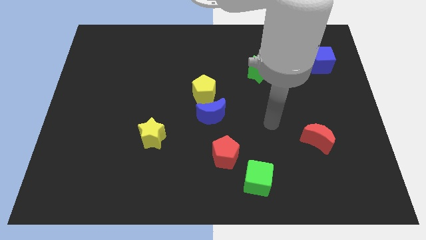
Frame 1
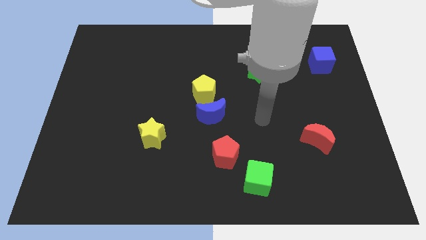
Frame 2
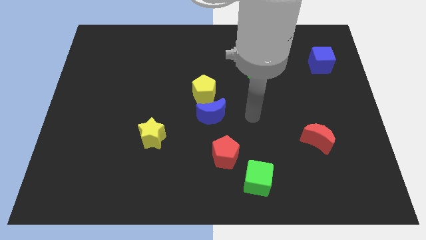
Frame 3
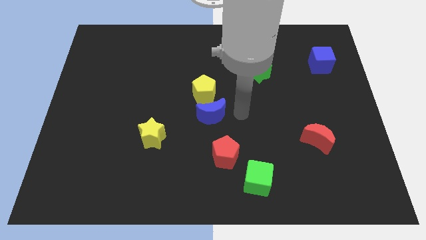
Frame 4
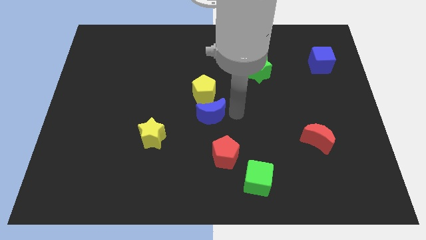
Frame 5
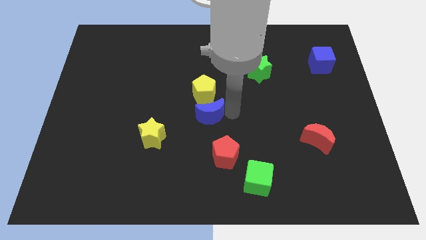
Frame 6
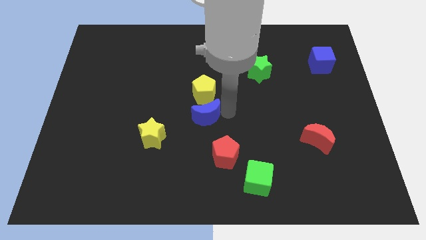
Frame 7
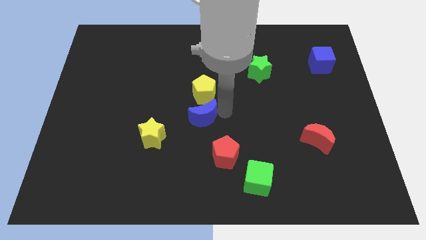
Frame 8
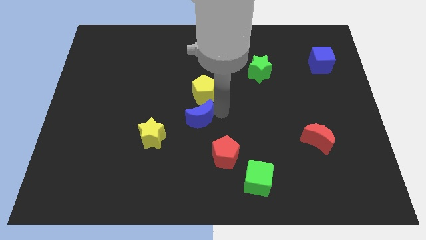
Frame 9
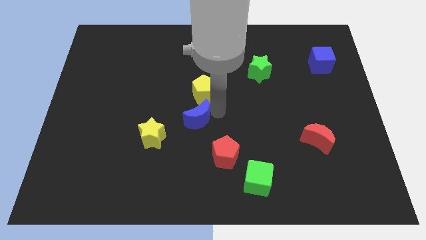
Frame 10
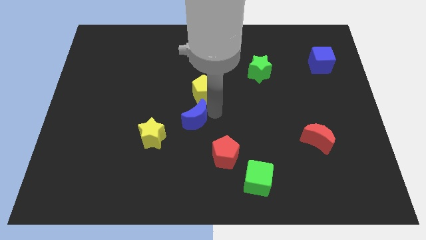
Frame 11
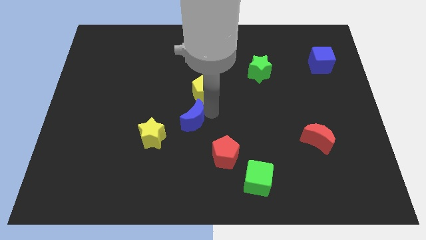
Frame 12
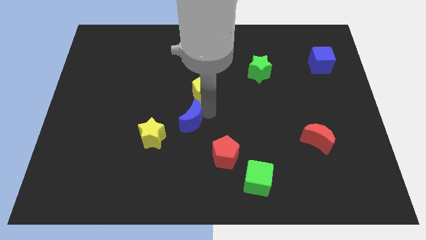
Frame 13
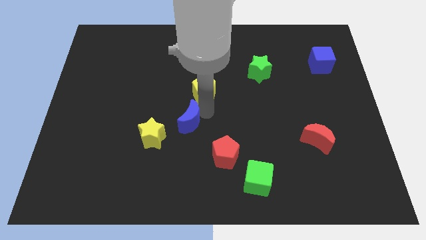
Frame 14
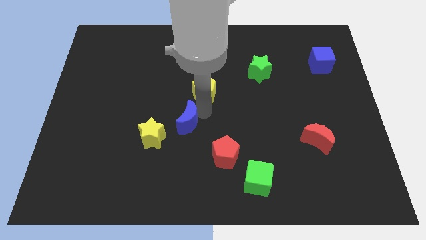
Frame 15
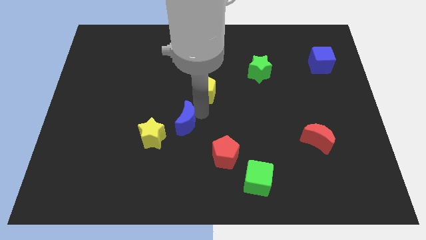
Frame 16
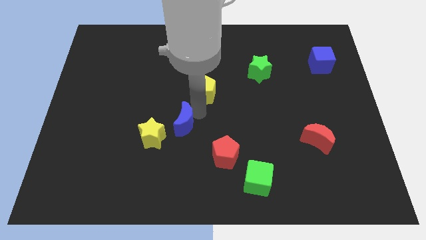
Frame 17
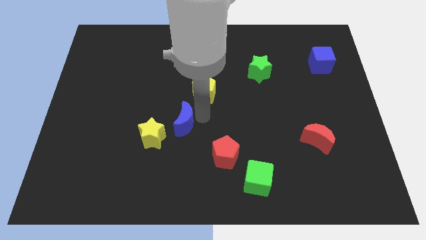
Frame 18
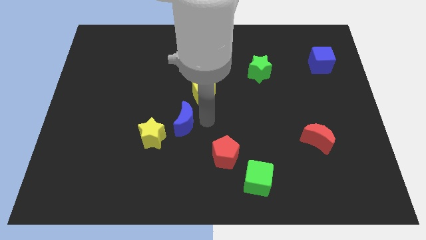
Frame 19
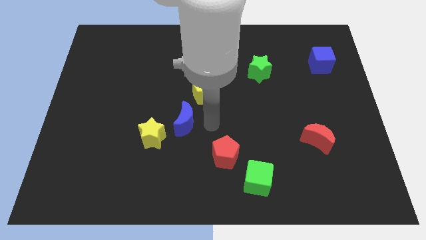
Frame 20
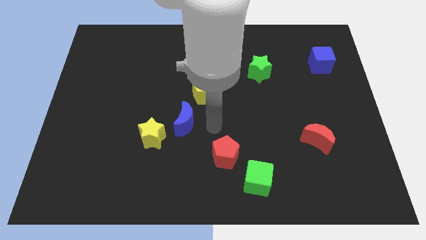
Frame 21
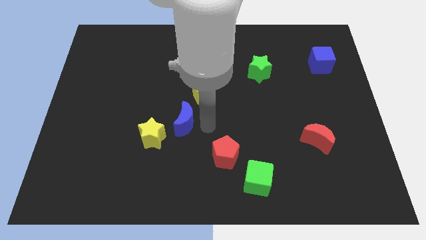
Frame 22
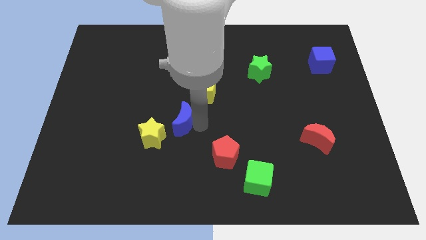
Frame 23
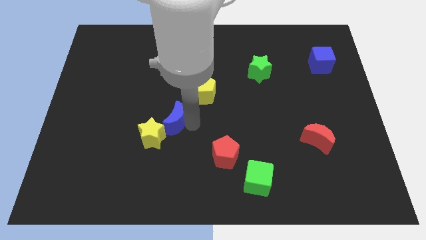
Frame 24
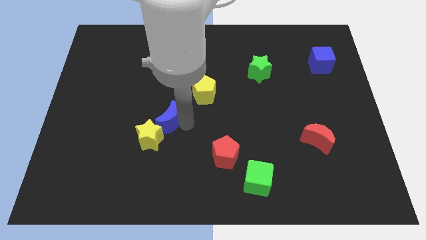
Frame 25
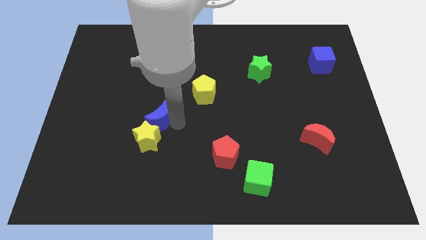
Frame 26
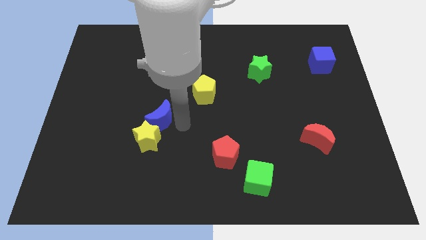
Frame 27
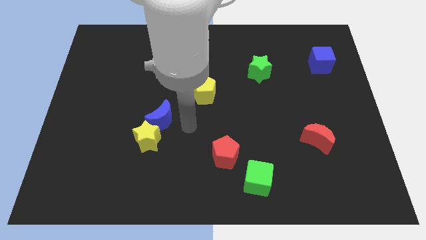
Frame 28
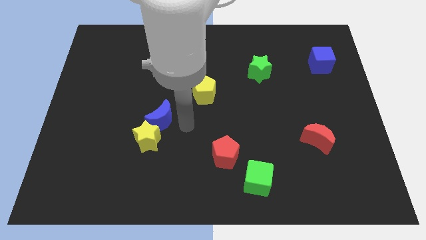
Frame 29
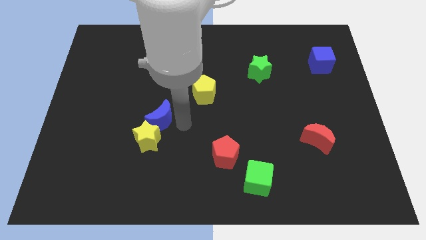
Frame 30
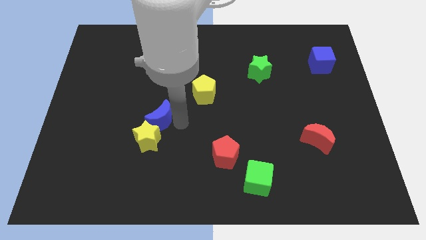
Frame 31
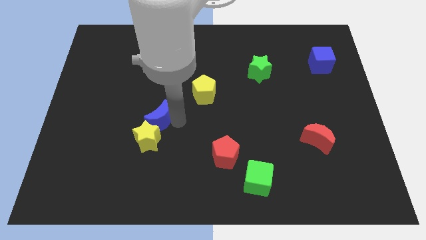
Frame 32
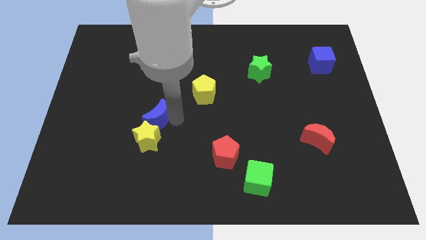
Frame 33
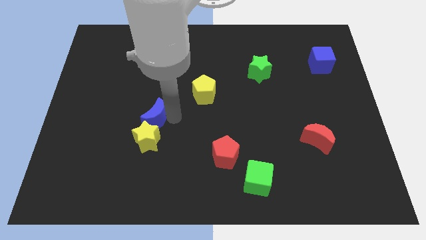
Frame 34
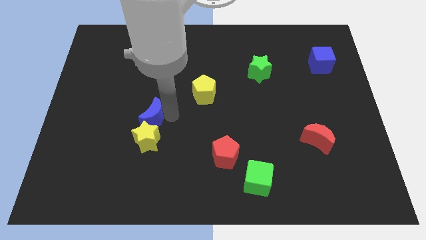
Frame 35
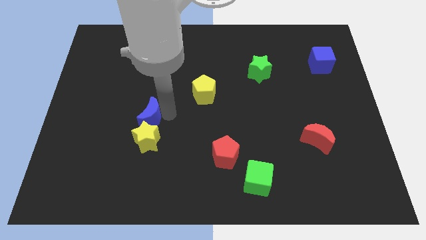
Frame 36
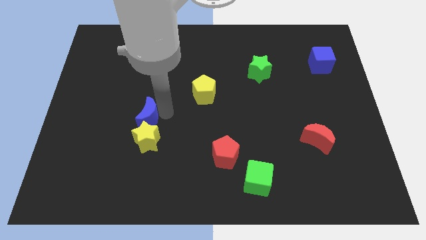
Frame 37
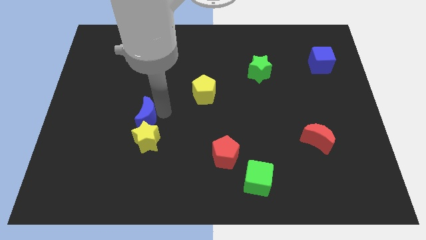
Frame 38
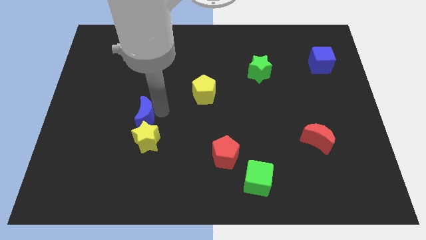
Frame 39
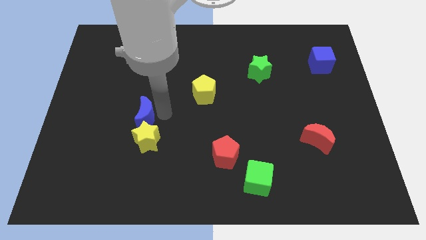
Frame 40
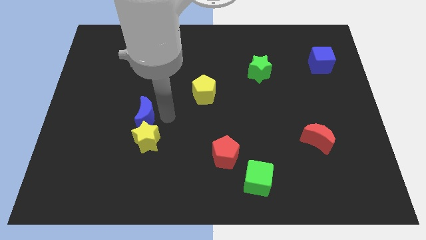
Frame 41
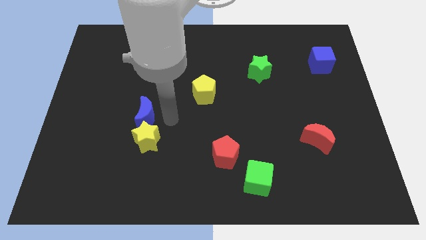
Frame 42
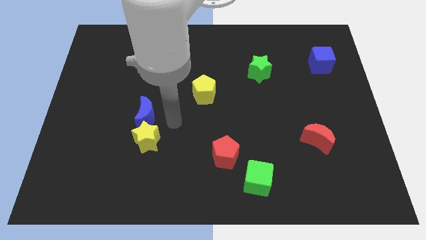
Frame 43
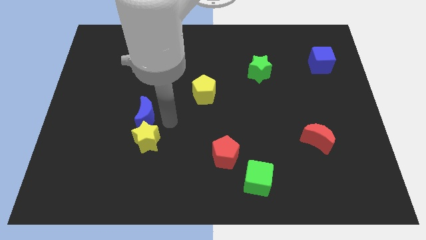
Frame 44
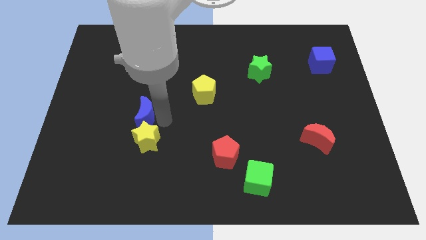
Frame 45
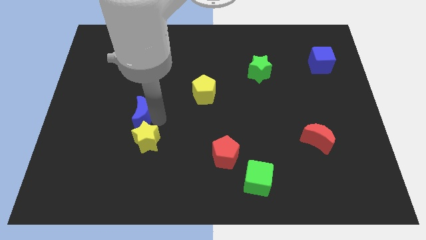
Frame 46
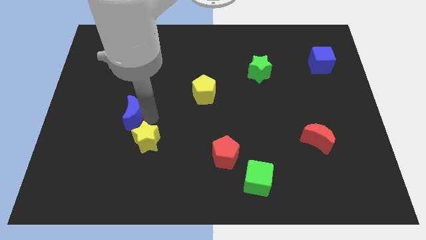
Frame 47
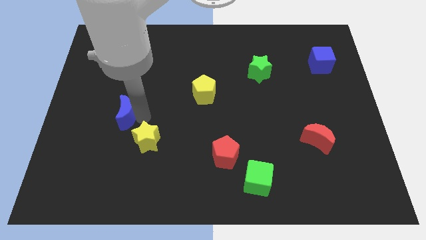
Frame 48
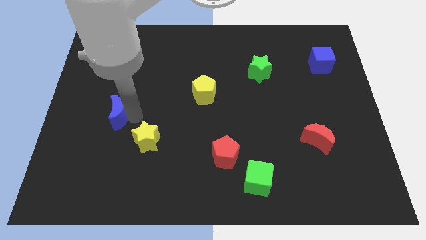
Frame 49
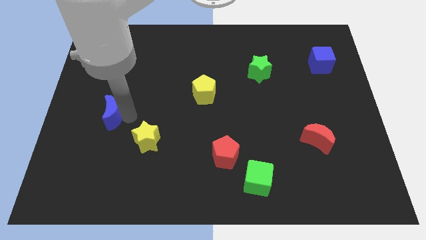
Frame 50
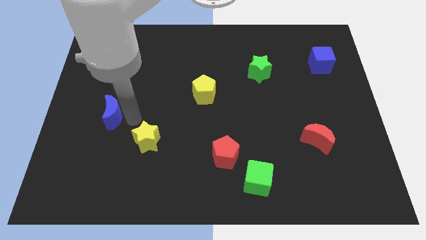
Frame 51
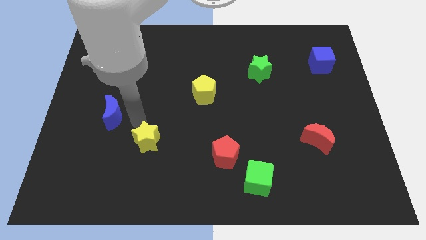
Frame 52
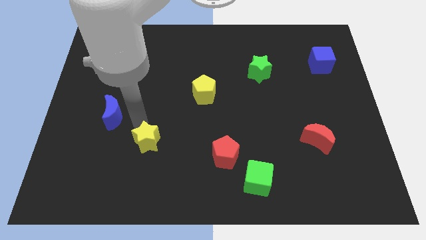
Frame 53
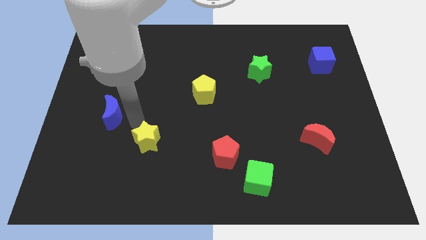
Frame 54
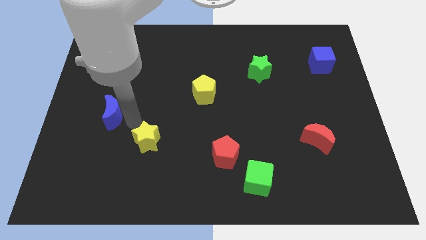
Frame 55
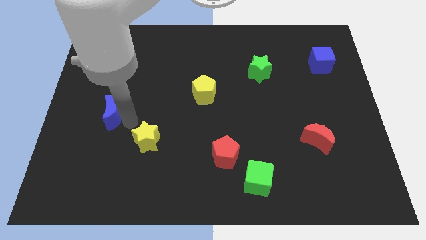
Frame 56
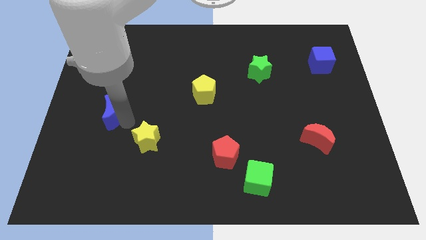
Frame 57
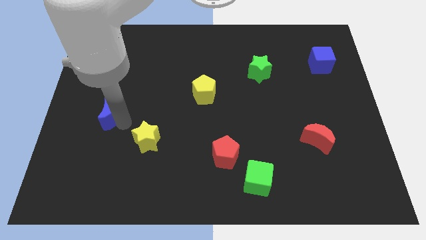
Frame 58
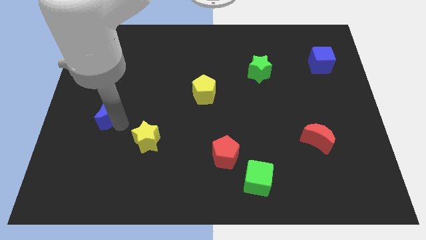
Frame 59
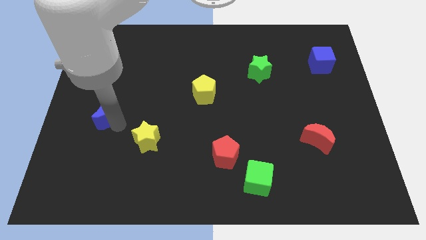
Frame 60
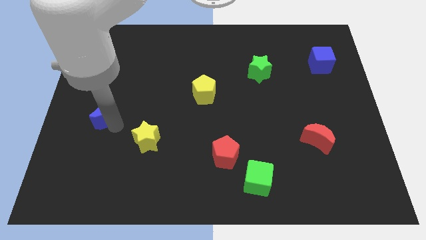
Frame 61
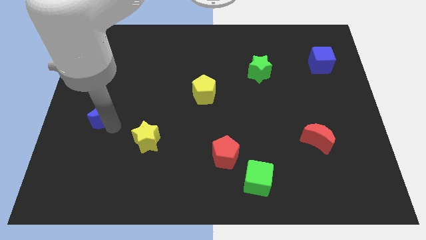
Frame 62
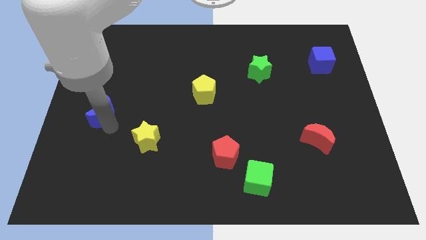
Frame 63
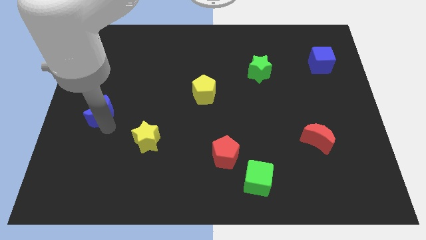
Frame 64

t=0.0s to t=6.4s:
push the blue moon to the left side of the board
